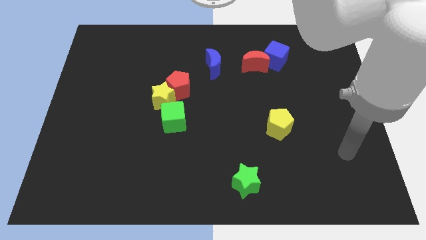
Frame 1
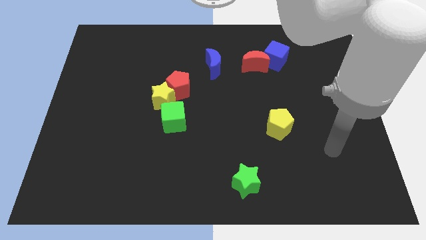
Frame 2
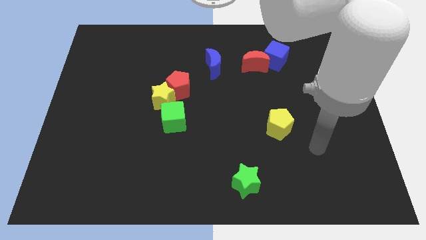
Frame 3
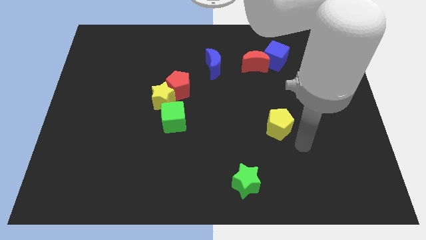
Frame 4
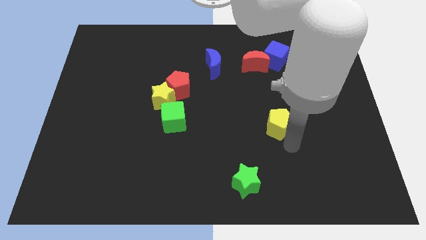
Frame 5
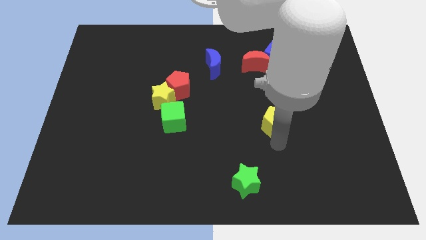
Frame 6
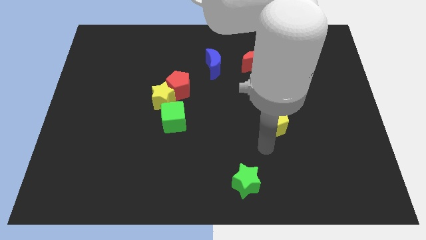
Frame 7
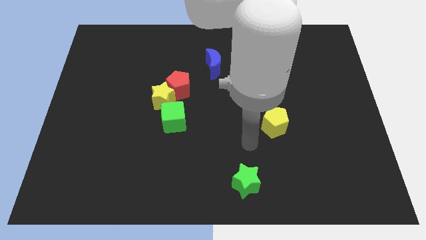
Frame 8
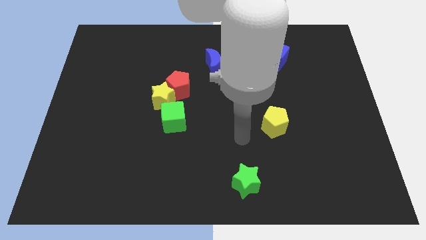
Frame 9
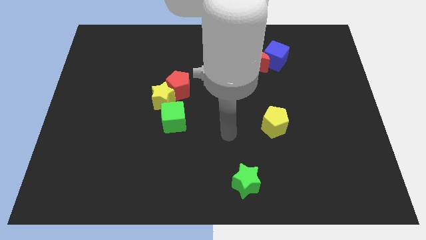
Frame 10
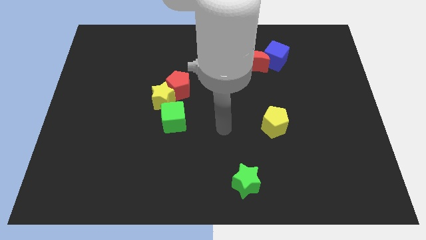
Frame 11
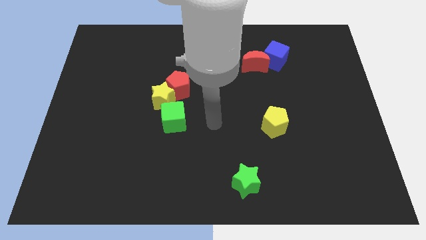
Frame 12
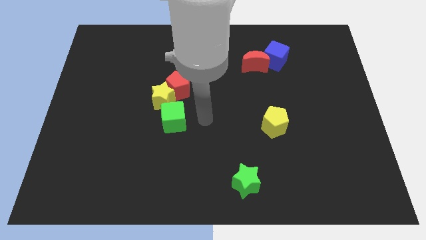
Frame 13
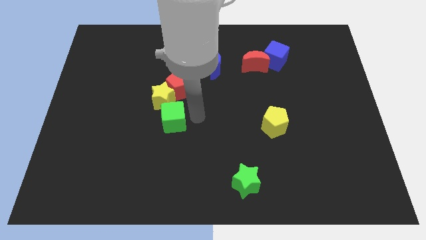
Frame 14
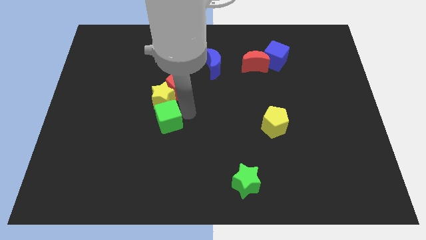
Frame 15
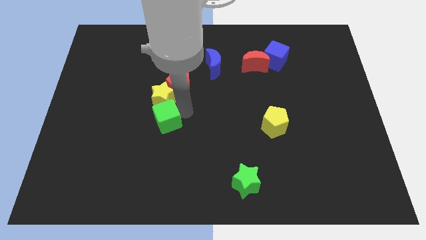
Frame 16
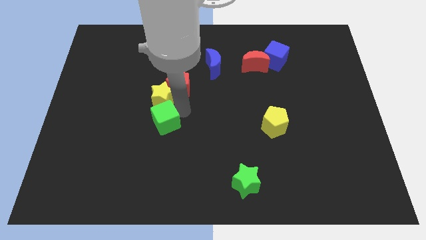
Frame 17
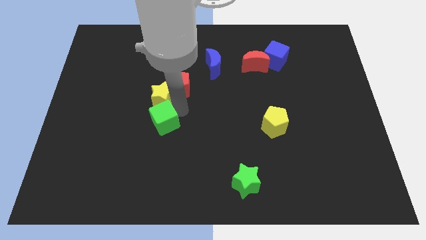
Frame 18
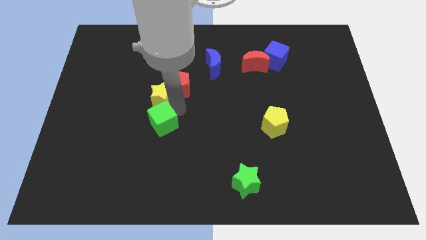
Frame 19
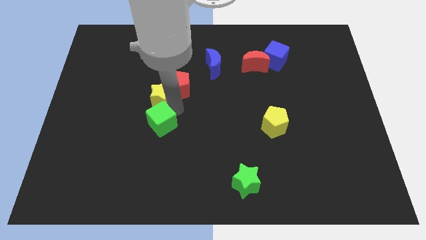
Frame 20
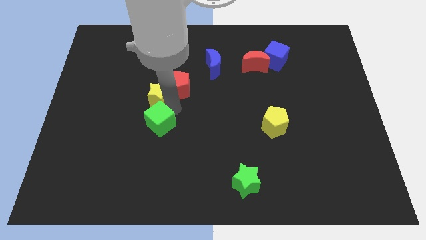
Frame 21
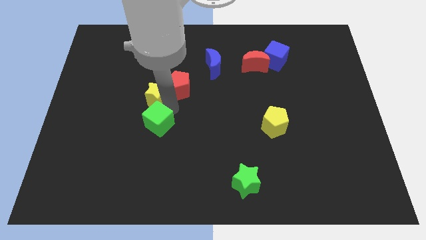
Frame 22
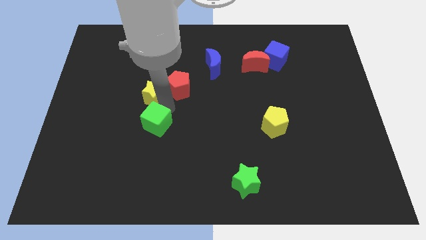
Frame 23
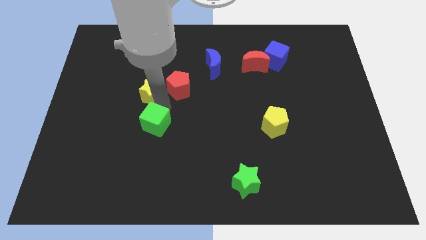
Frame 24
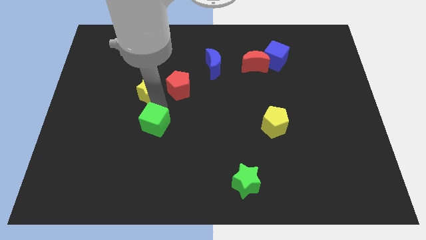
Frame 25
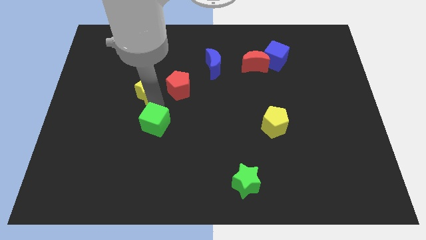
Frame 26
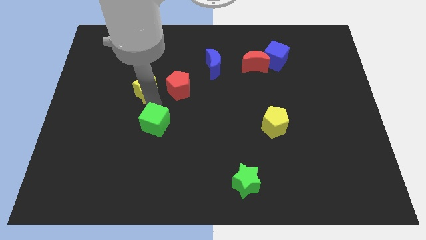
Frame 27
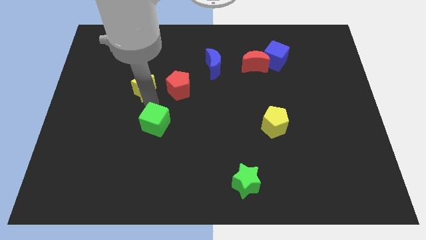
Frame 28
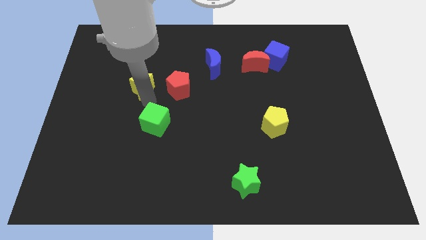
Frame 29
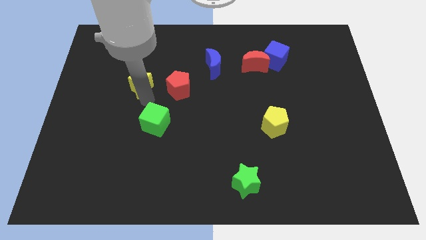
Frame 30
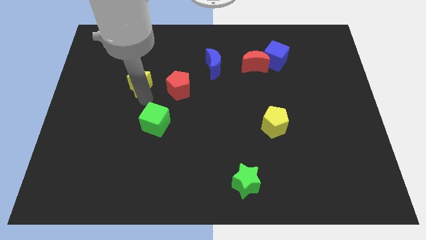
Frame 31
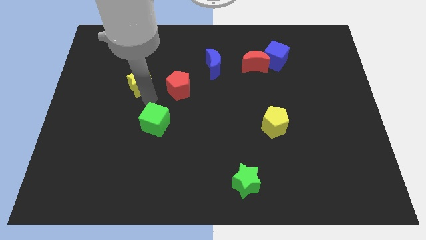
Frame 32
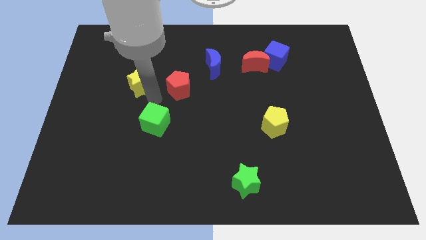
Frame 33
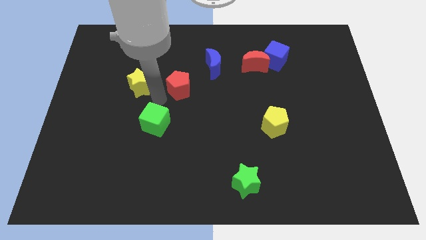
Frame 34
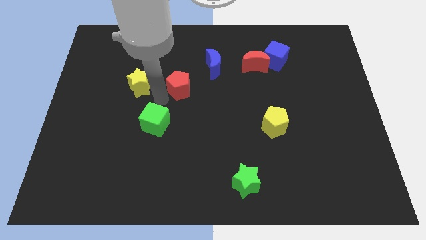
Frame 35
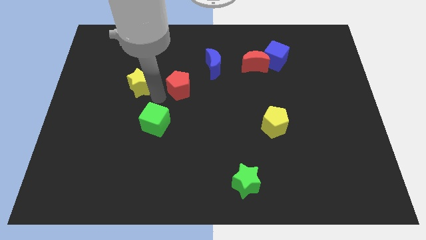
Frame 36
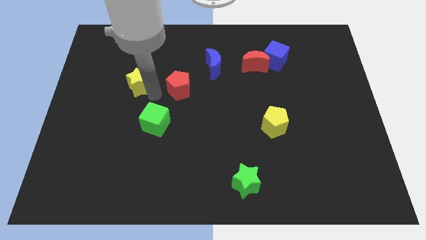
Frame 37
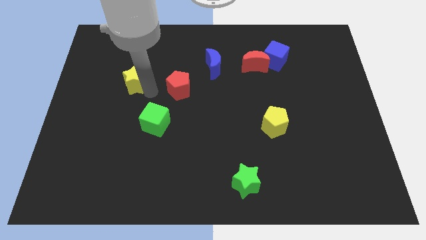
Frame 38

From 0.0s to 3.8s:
separate the yellow star from the red pentagon and green cube

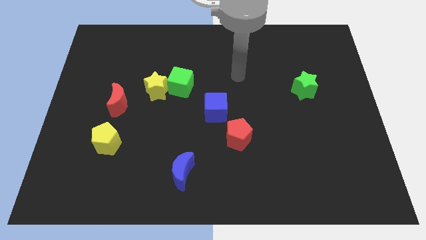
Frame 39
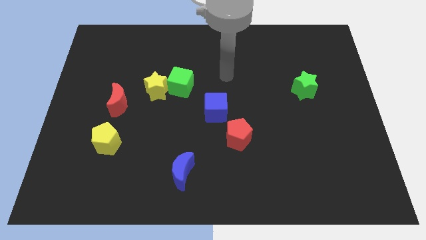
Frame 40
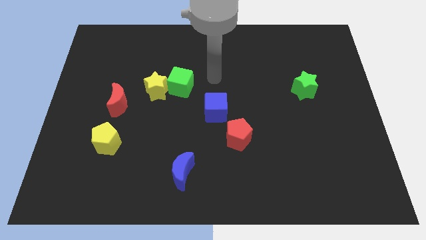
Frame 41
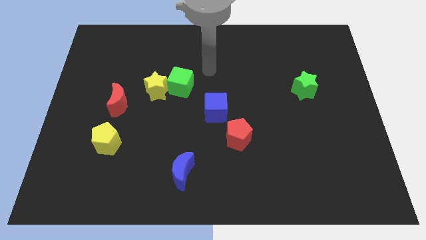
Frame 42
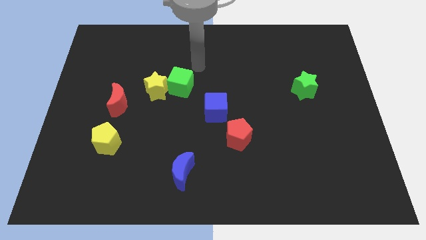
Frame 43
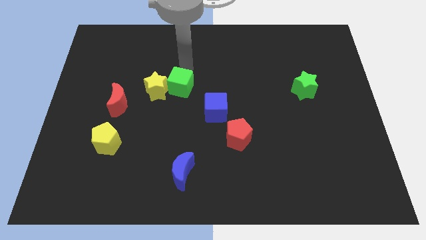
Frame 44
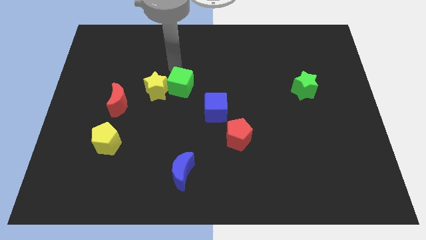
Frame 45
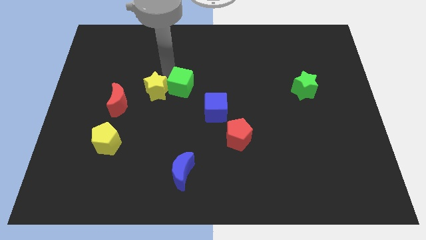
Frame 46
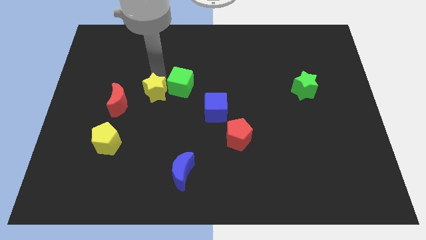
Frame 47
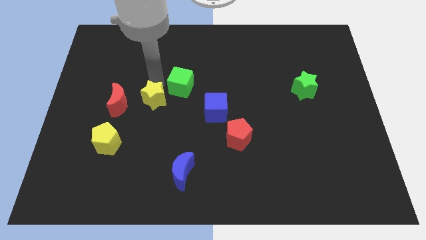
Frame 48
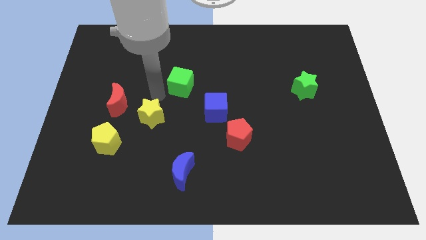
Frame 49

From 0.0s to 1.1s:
pull the green cube apart from the yellow star

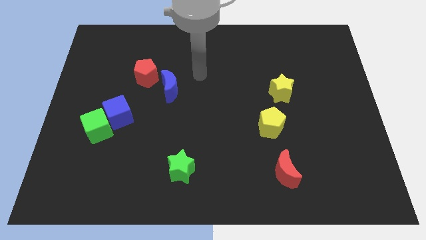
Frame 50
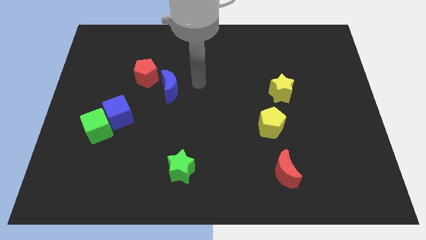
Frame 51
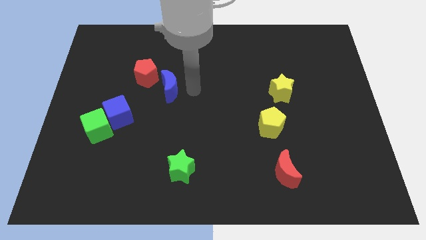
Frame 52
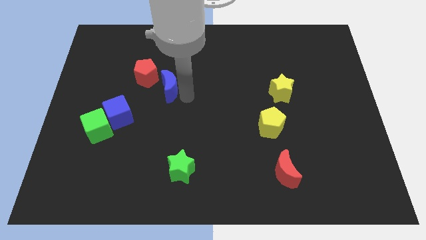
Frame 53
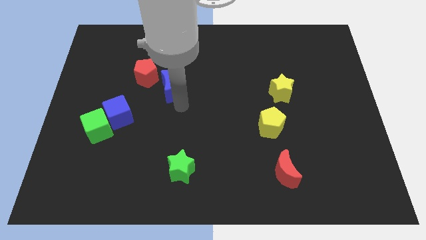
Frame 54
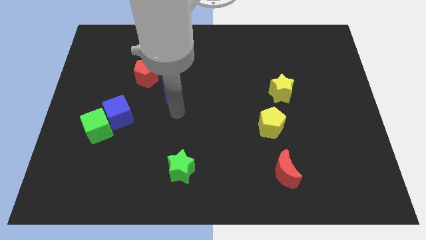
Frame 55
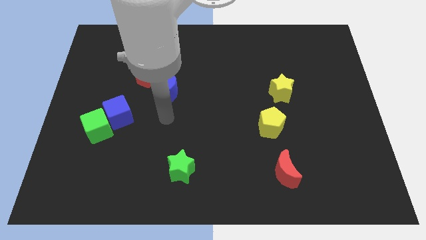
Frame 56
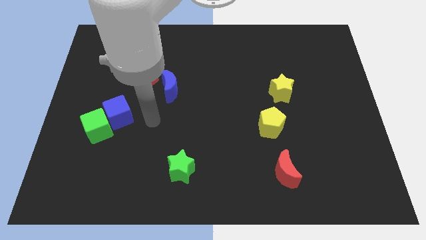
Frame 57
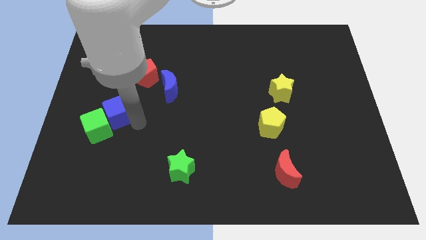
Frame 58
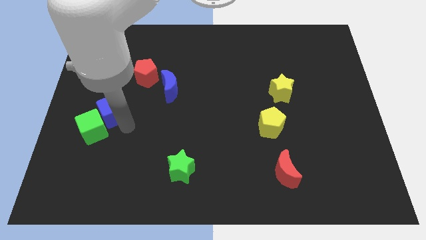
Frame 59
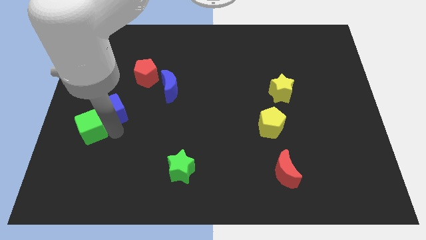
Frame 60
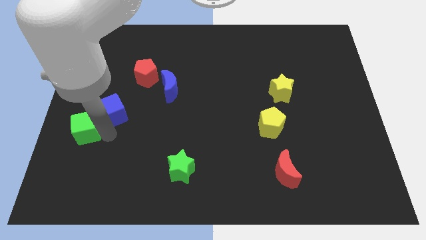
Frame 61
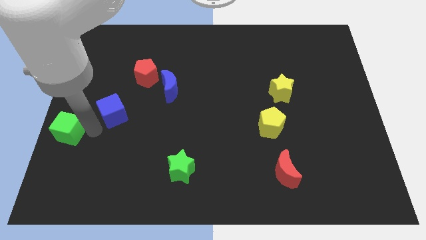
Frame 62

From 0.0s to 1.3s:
separate the blue cube from the green cube

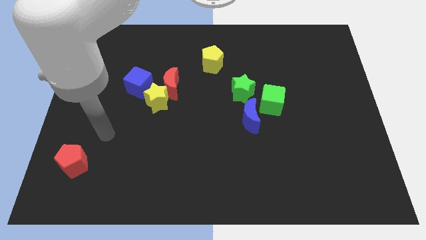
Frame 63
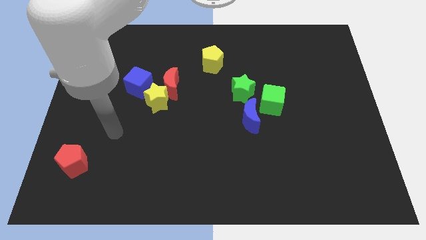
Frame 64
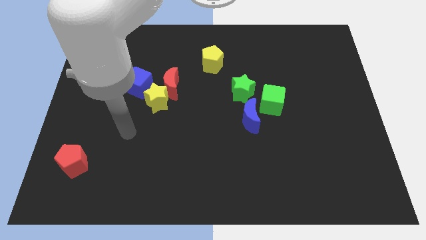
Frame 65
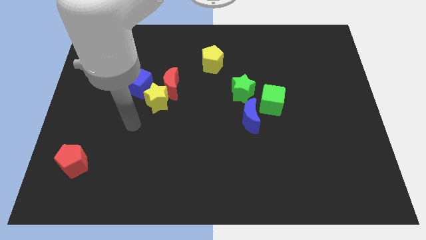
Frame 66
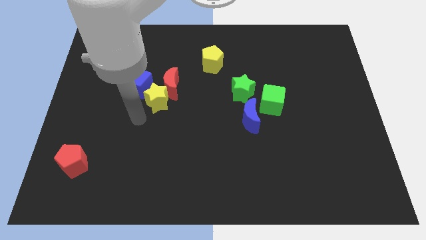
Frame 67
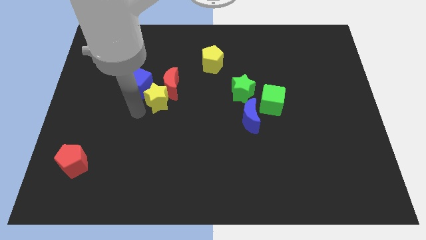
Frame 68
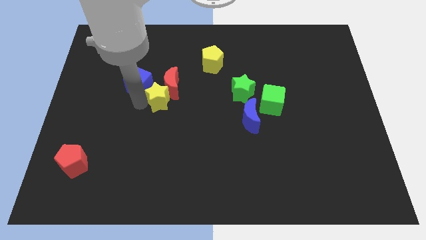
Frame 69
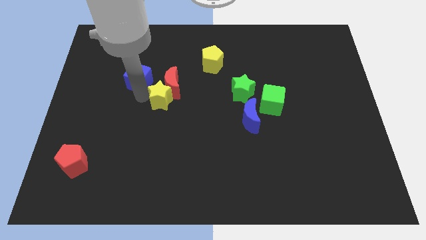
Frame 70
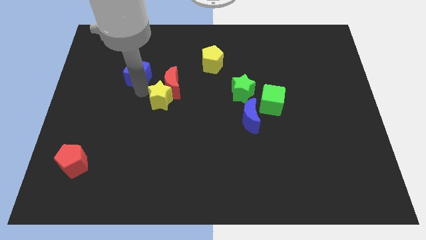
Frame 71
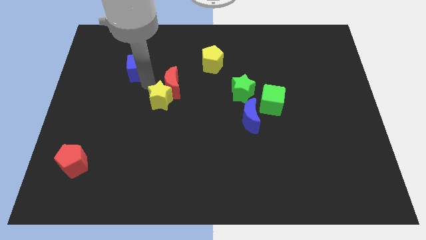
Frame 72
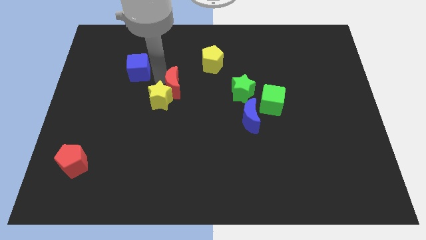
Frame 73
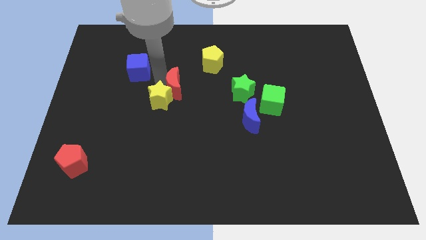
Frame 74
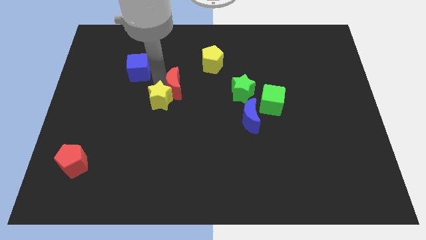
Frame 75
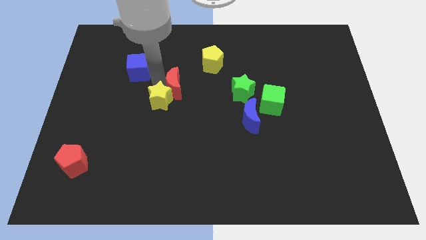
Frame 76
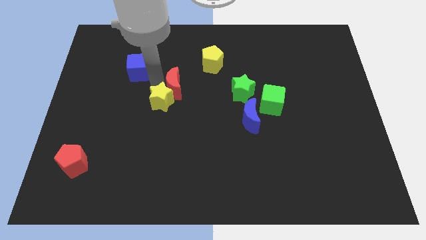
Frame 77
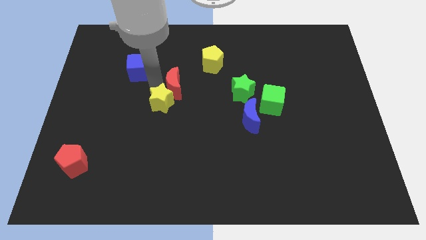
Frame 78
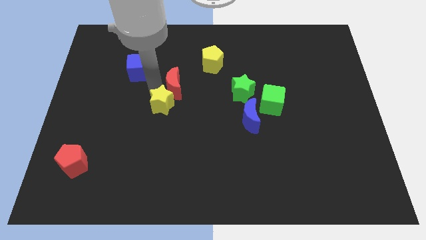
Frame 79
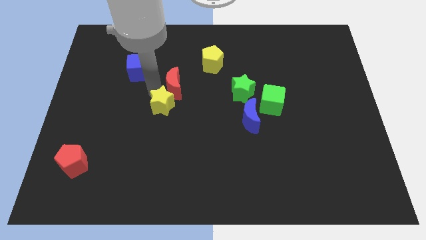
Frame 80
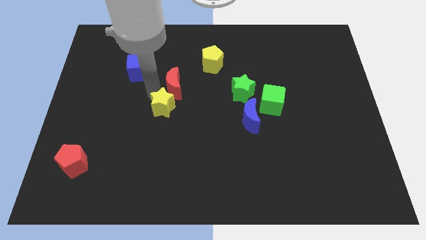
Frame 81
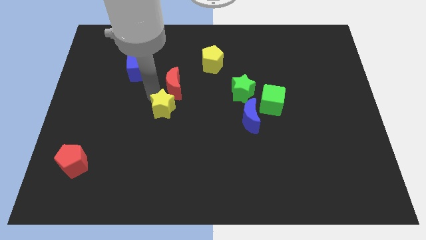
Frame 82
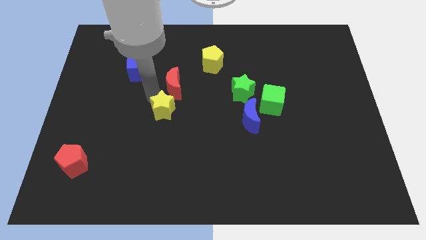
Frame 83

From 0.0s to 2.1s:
pull the yellow star apart from the red moon and blue cube

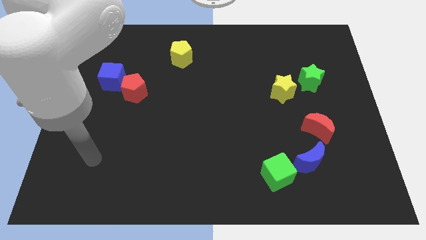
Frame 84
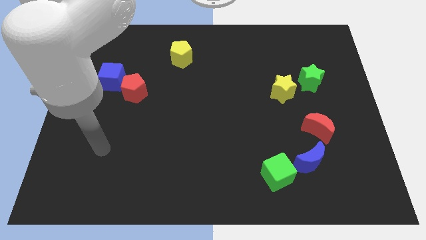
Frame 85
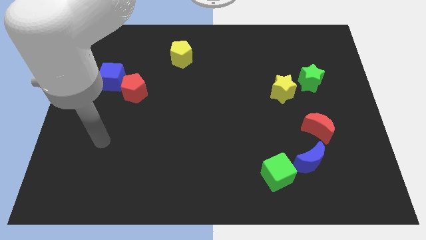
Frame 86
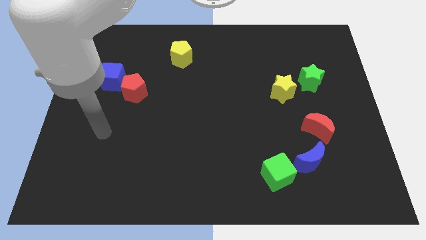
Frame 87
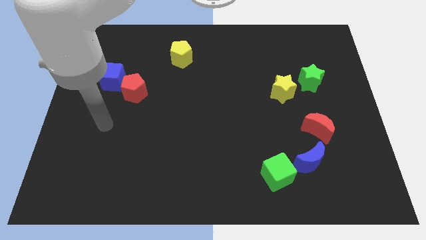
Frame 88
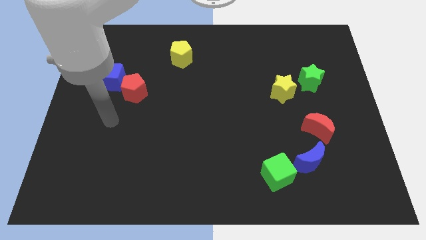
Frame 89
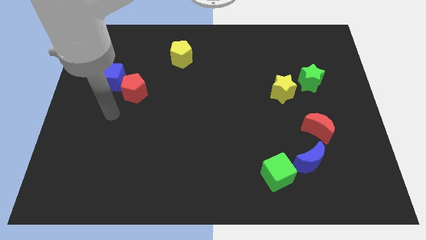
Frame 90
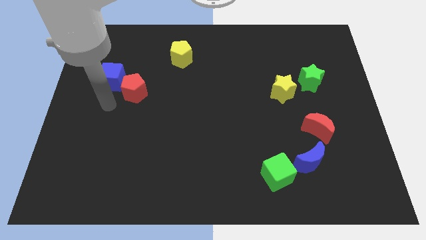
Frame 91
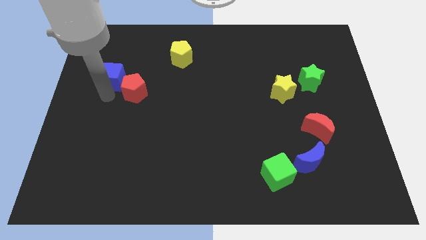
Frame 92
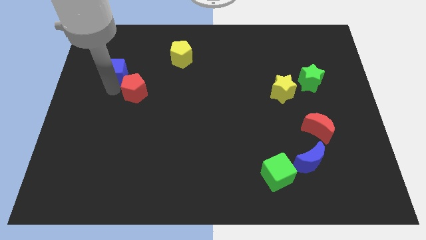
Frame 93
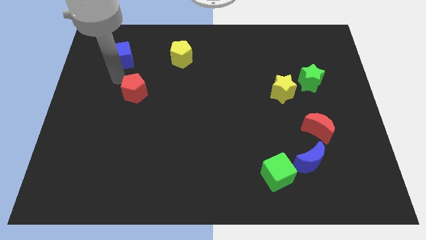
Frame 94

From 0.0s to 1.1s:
separate the red pentagon from the blue cube
